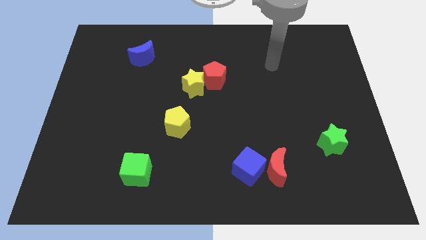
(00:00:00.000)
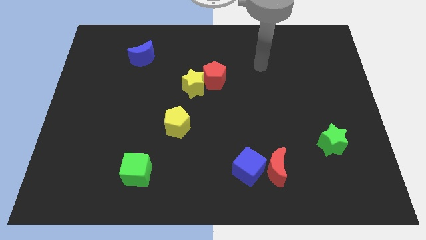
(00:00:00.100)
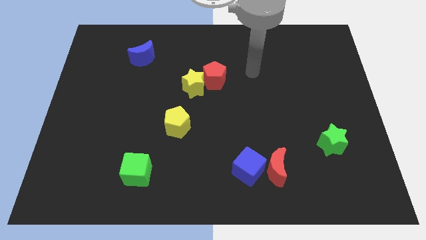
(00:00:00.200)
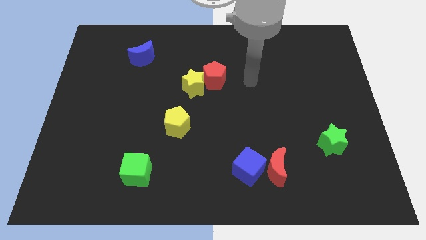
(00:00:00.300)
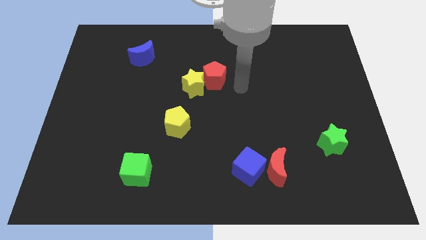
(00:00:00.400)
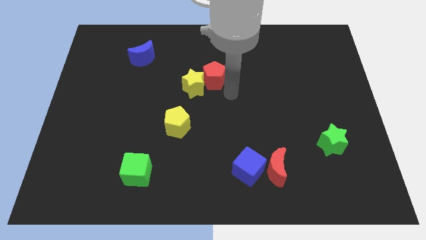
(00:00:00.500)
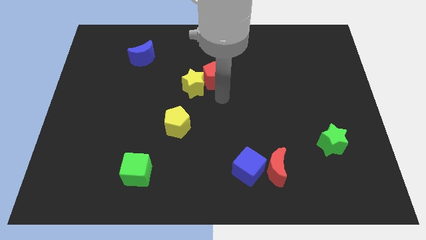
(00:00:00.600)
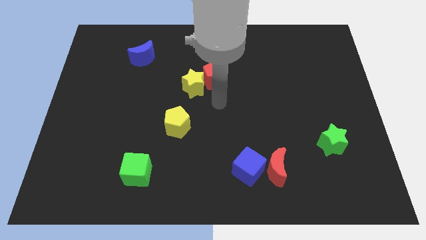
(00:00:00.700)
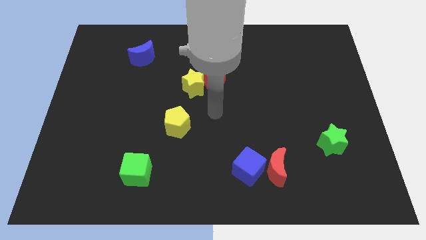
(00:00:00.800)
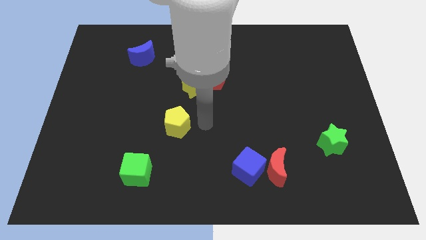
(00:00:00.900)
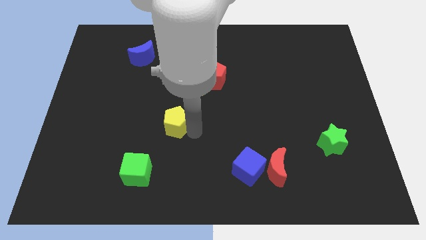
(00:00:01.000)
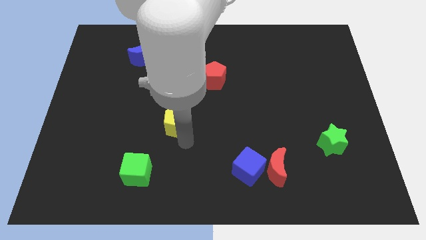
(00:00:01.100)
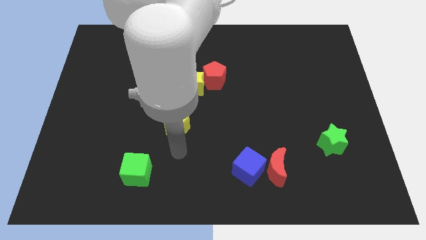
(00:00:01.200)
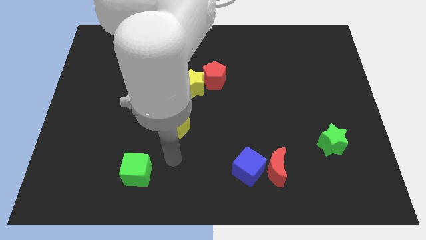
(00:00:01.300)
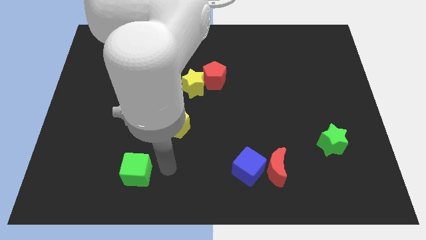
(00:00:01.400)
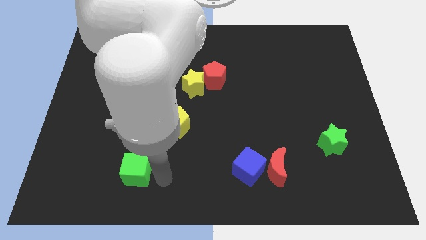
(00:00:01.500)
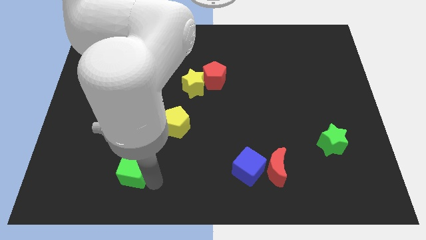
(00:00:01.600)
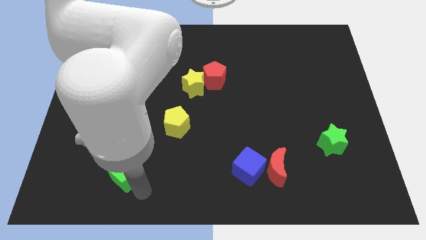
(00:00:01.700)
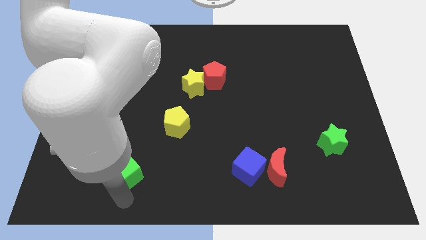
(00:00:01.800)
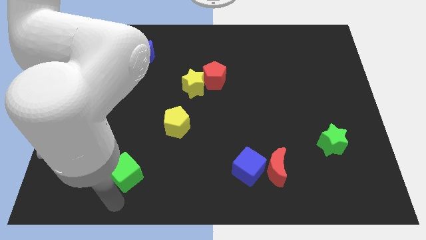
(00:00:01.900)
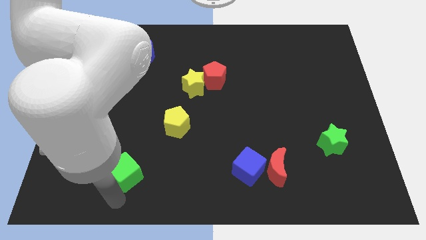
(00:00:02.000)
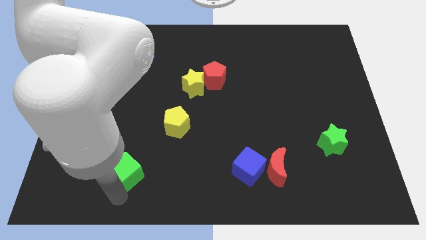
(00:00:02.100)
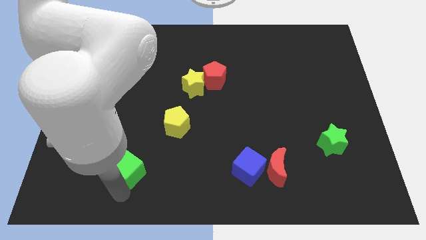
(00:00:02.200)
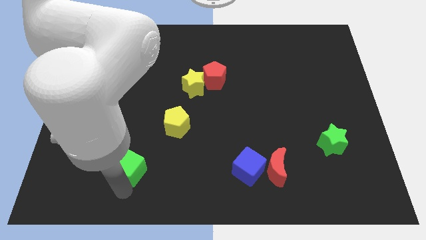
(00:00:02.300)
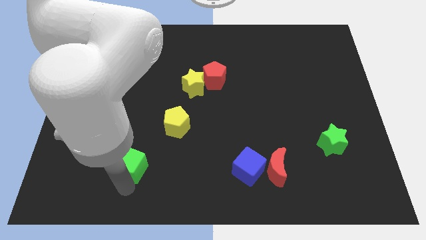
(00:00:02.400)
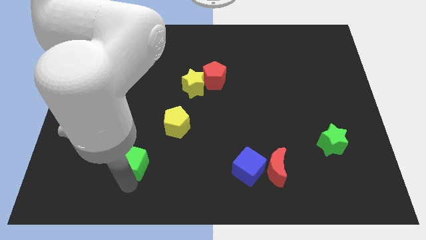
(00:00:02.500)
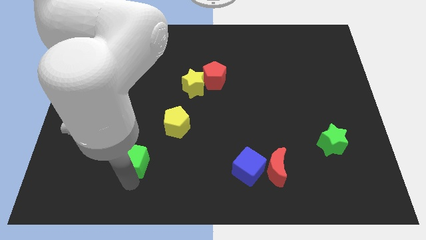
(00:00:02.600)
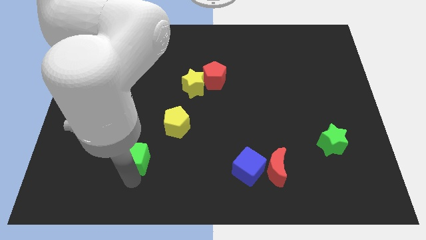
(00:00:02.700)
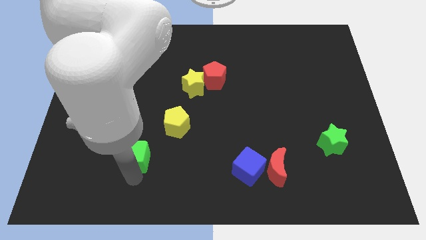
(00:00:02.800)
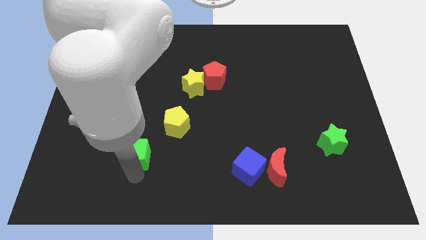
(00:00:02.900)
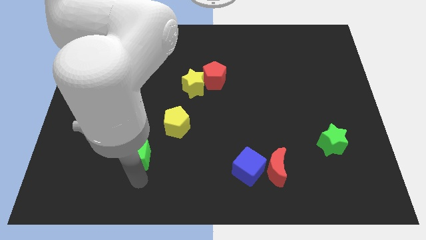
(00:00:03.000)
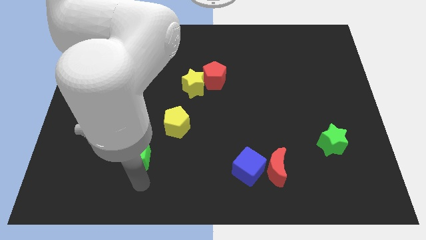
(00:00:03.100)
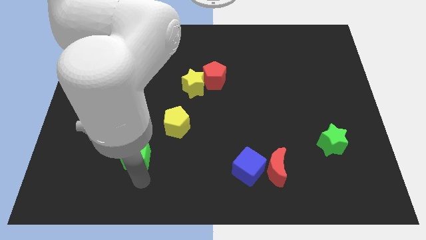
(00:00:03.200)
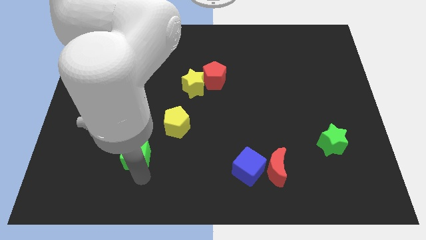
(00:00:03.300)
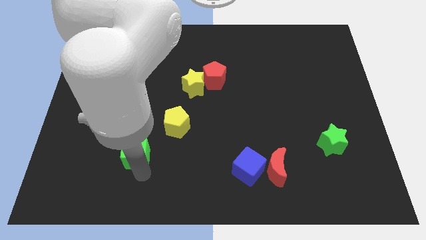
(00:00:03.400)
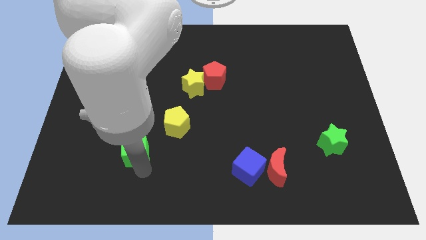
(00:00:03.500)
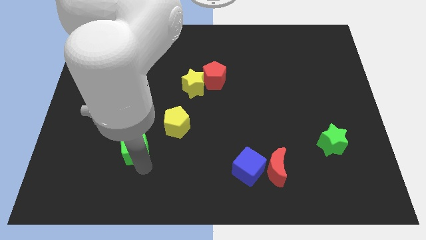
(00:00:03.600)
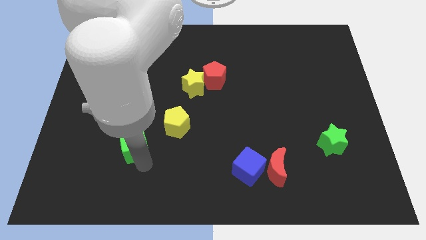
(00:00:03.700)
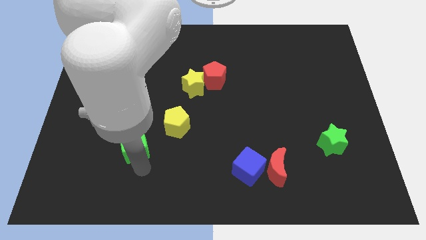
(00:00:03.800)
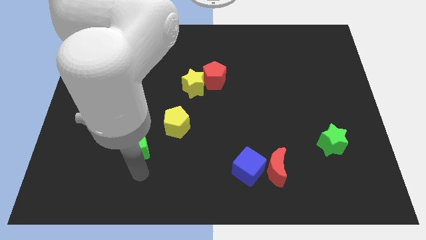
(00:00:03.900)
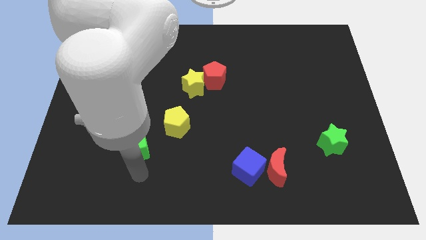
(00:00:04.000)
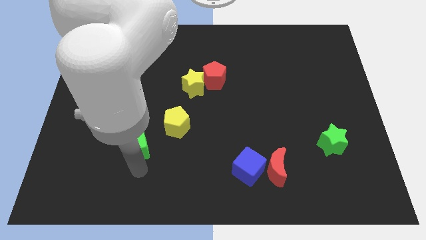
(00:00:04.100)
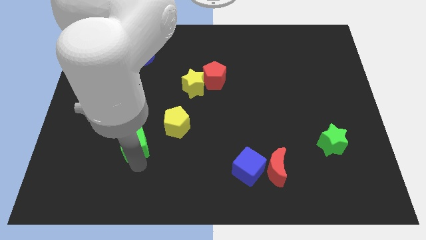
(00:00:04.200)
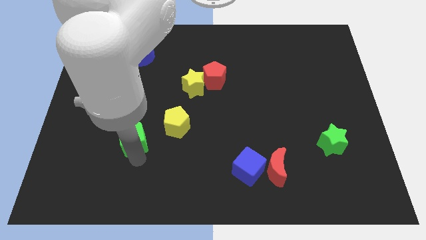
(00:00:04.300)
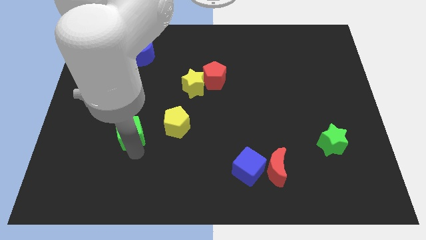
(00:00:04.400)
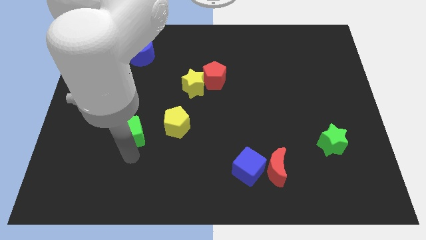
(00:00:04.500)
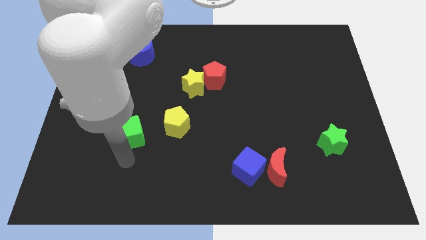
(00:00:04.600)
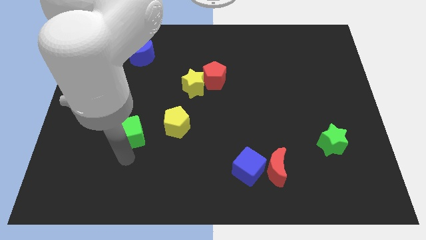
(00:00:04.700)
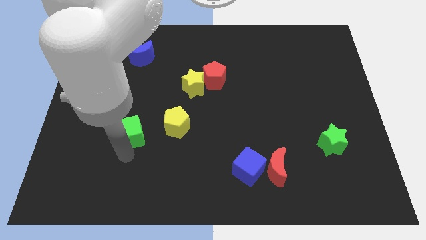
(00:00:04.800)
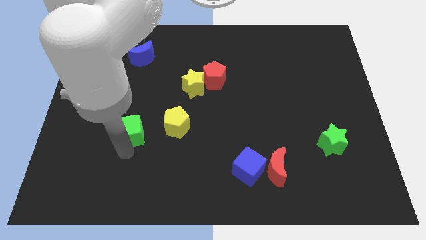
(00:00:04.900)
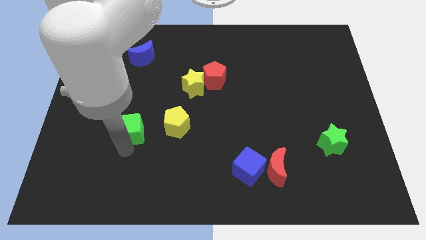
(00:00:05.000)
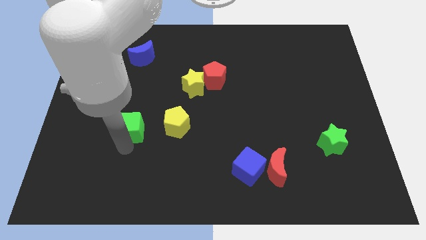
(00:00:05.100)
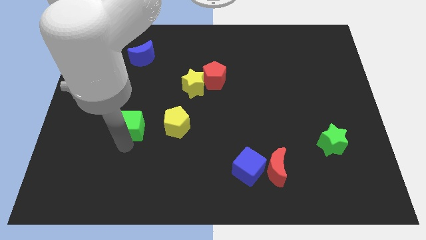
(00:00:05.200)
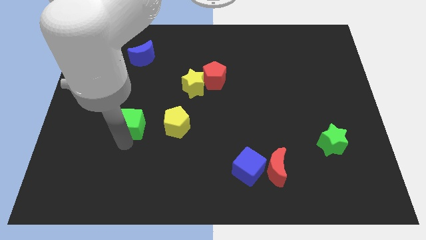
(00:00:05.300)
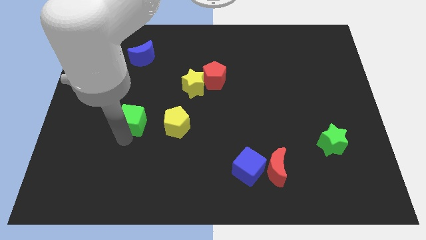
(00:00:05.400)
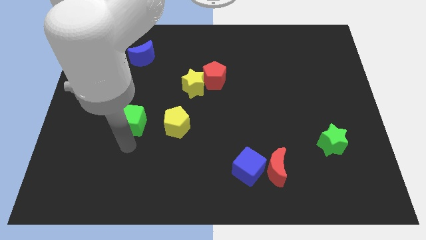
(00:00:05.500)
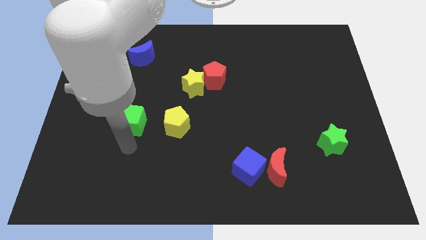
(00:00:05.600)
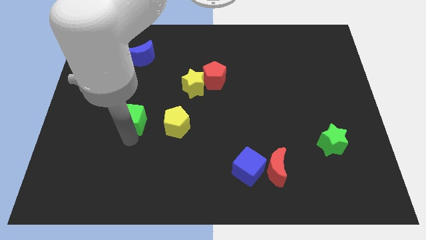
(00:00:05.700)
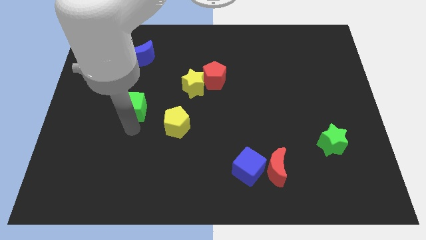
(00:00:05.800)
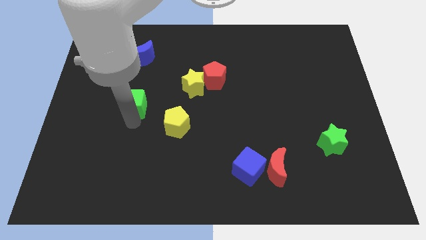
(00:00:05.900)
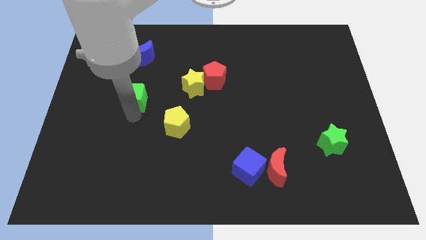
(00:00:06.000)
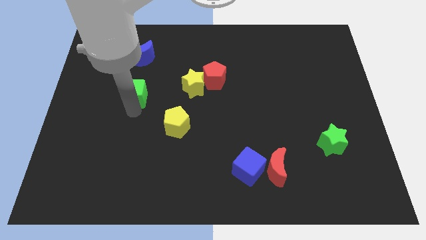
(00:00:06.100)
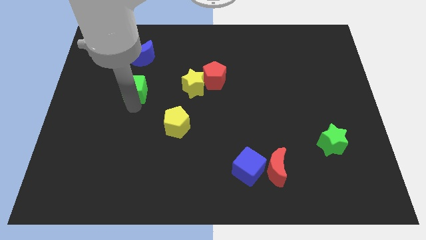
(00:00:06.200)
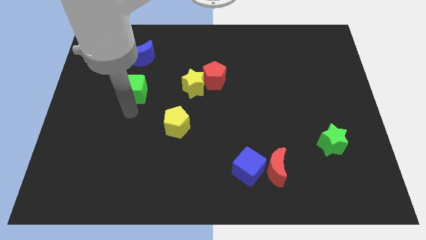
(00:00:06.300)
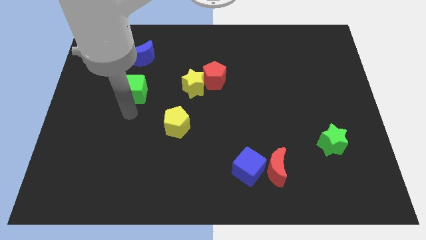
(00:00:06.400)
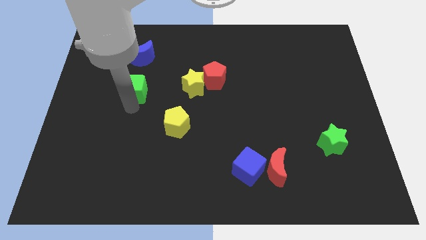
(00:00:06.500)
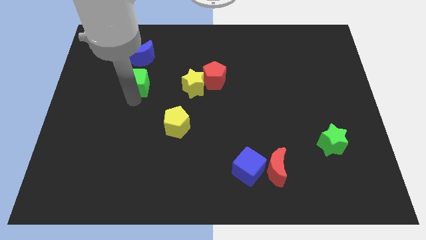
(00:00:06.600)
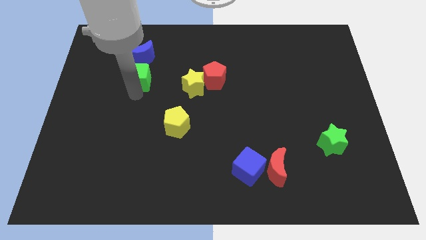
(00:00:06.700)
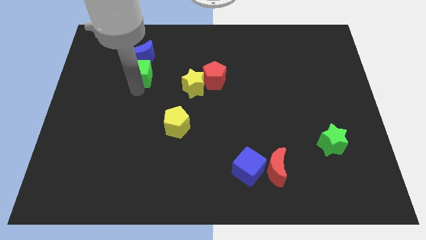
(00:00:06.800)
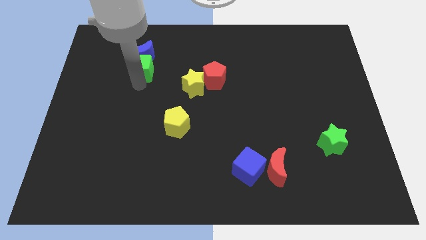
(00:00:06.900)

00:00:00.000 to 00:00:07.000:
push the green cube next to the blue moon

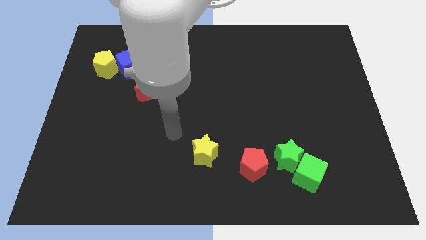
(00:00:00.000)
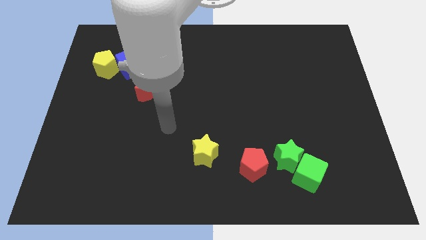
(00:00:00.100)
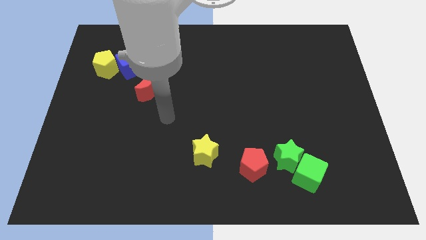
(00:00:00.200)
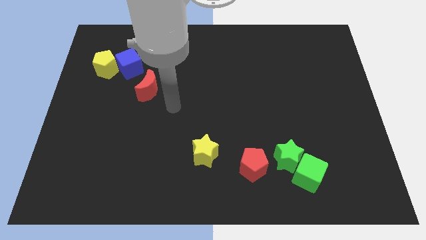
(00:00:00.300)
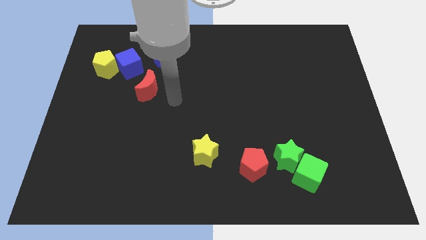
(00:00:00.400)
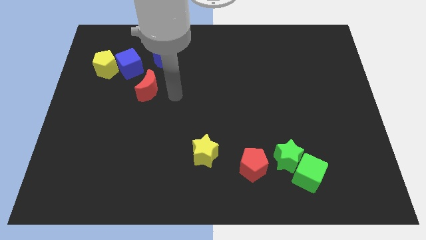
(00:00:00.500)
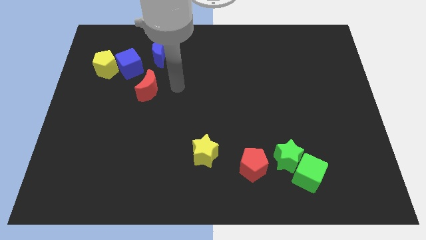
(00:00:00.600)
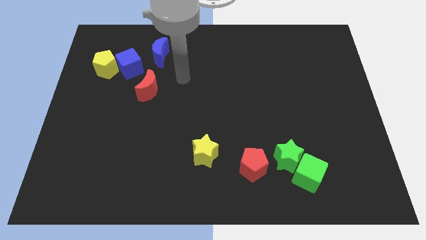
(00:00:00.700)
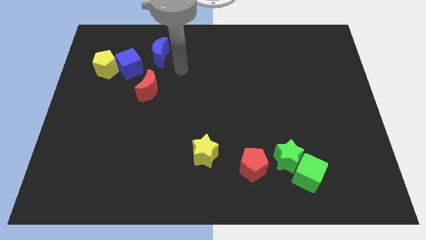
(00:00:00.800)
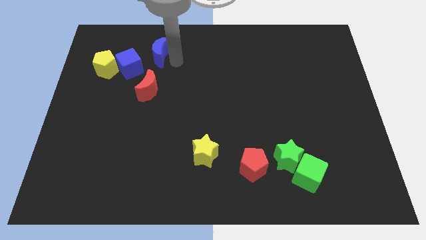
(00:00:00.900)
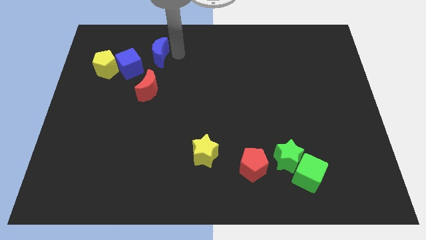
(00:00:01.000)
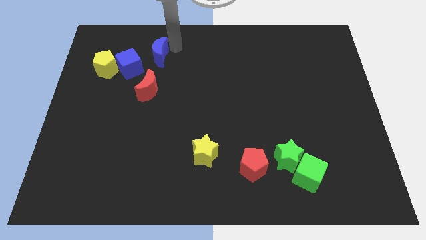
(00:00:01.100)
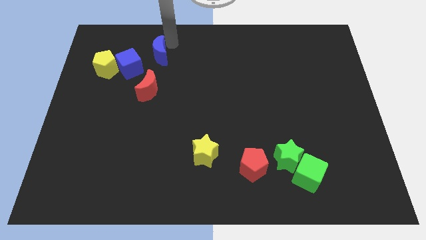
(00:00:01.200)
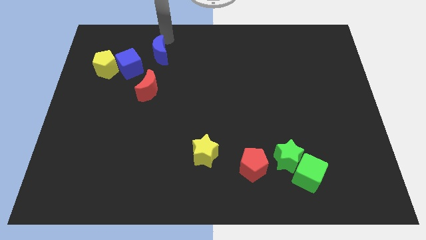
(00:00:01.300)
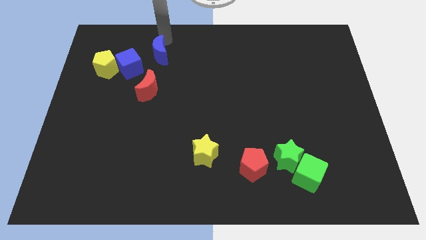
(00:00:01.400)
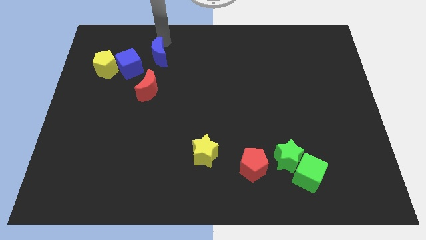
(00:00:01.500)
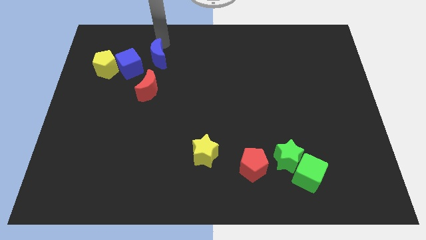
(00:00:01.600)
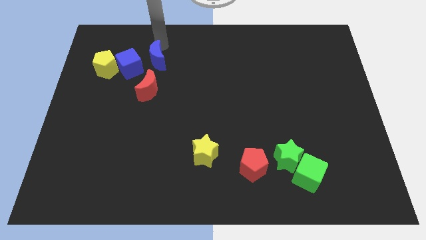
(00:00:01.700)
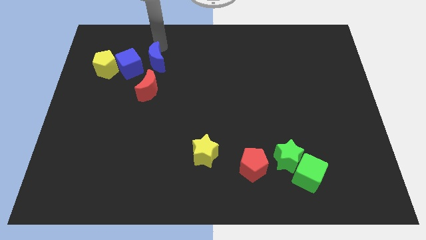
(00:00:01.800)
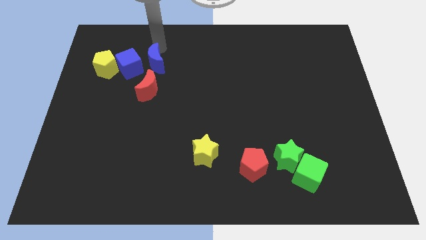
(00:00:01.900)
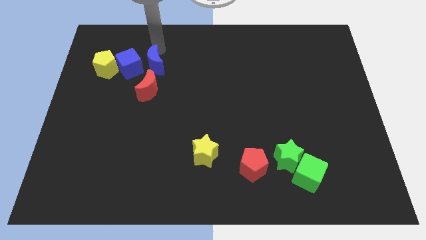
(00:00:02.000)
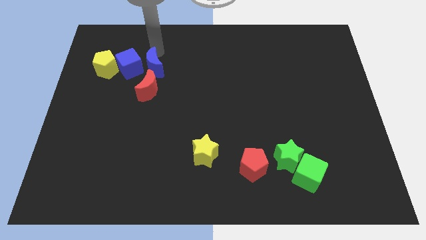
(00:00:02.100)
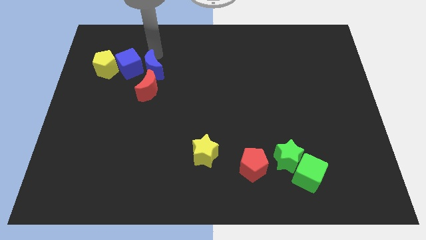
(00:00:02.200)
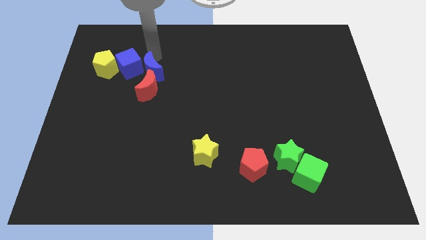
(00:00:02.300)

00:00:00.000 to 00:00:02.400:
slide the blue moon to the red moon
